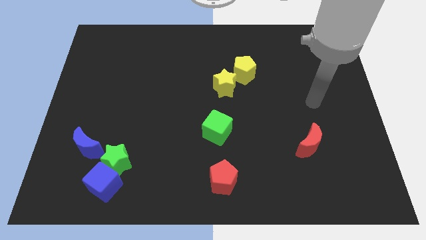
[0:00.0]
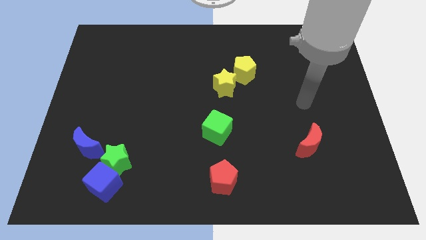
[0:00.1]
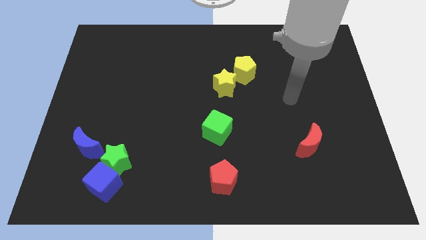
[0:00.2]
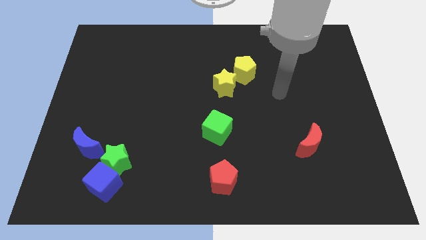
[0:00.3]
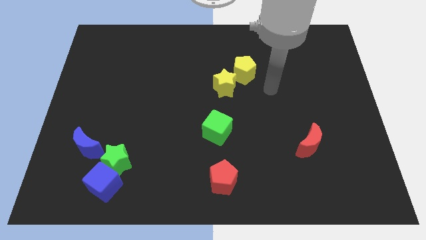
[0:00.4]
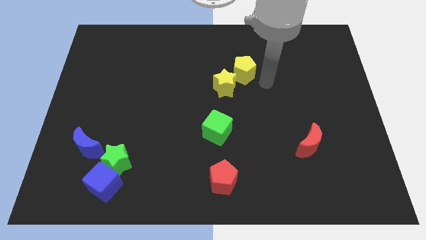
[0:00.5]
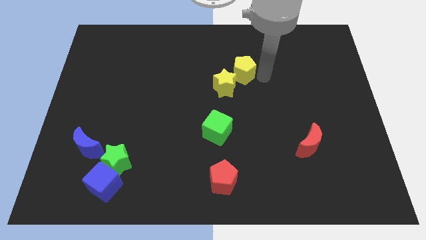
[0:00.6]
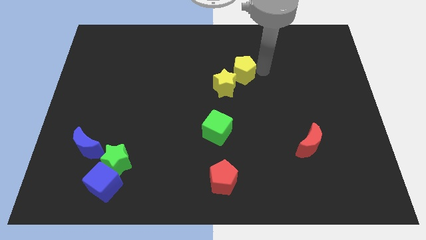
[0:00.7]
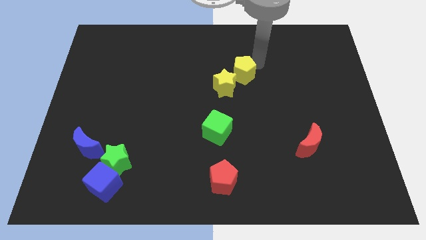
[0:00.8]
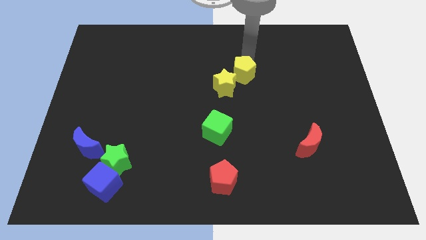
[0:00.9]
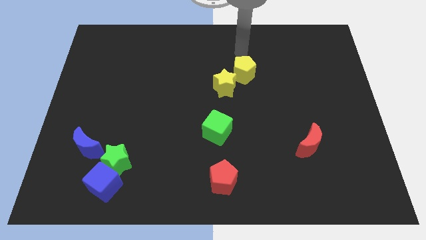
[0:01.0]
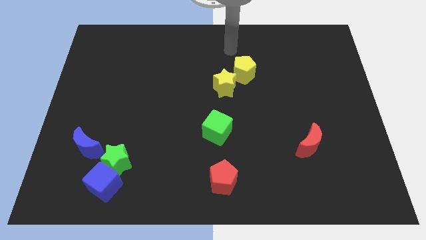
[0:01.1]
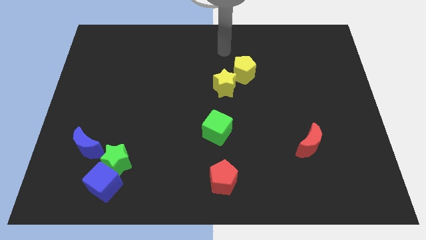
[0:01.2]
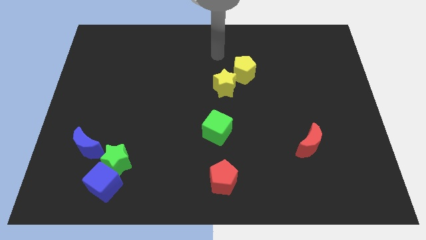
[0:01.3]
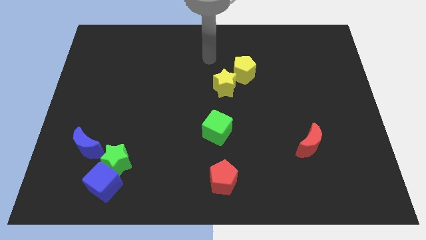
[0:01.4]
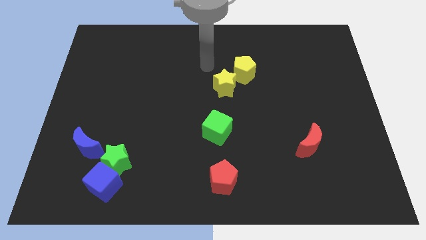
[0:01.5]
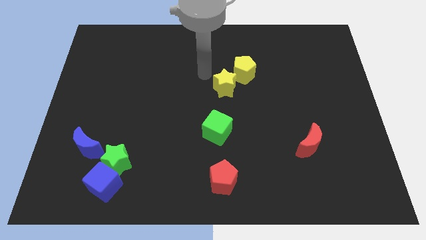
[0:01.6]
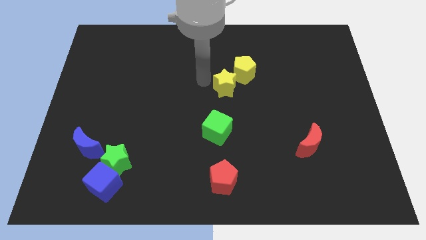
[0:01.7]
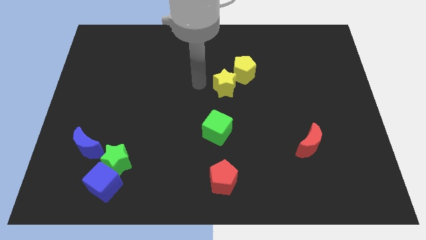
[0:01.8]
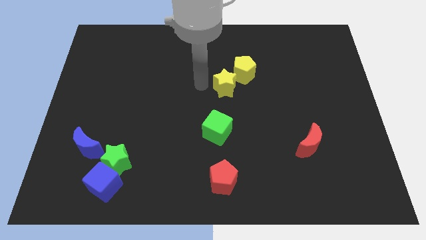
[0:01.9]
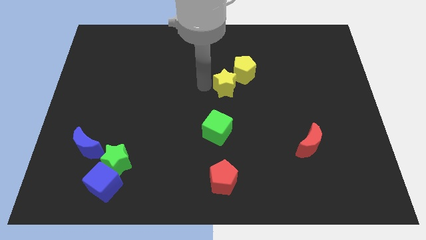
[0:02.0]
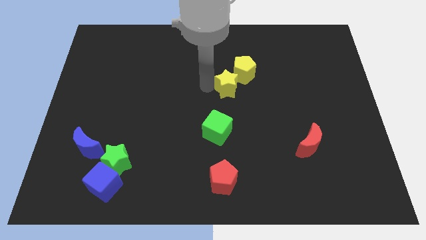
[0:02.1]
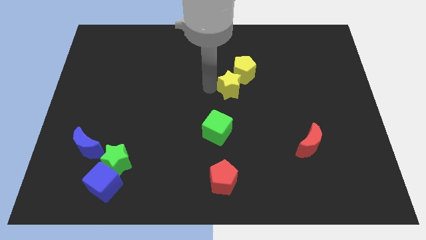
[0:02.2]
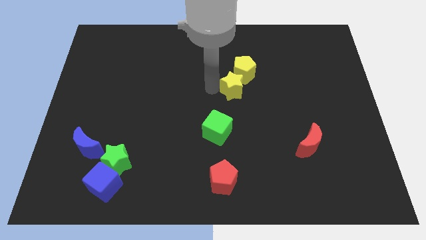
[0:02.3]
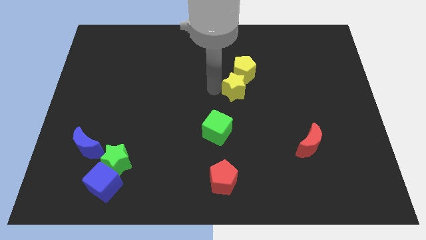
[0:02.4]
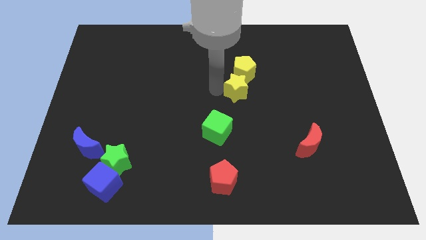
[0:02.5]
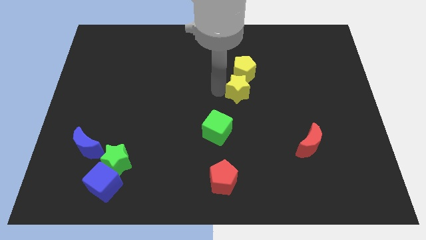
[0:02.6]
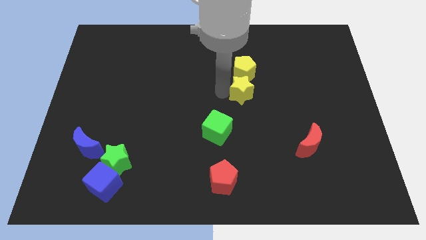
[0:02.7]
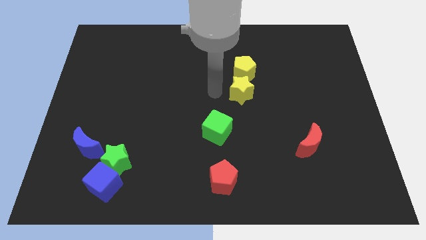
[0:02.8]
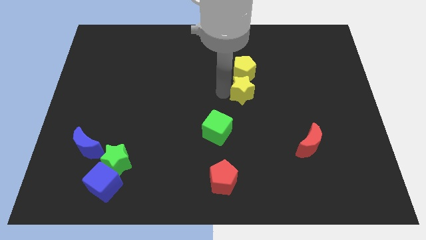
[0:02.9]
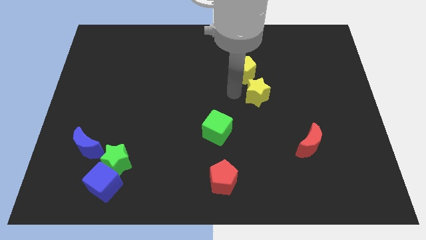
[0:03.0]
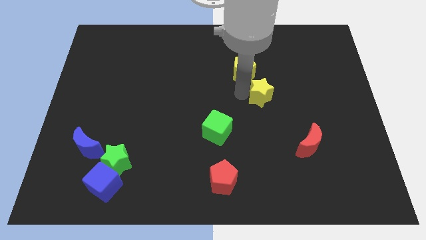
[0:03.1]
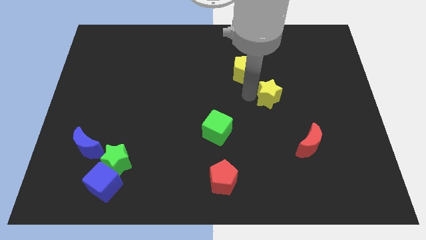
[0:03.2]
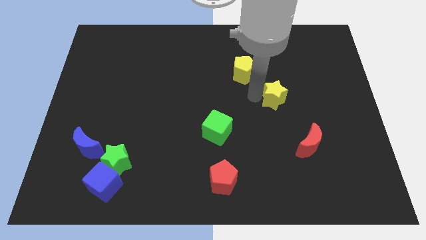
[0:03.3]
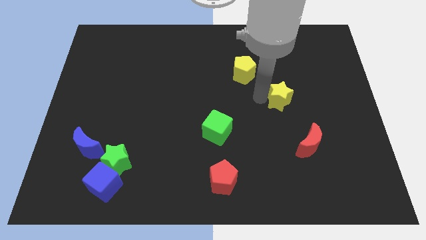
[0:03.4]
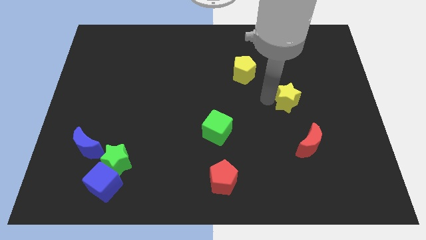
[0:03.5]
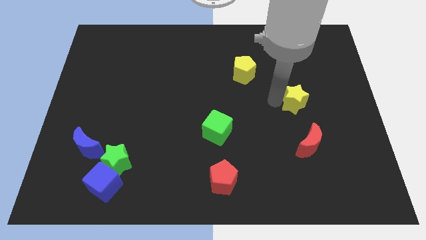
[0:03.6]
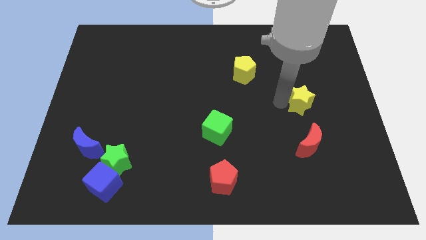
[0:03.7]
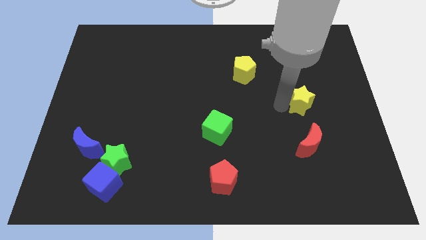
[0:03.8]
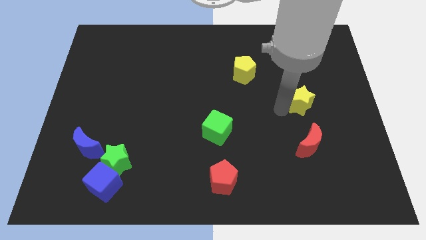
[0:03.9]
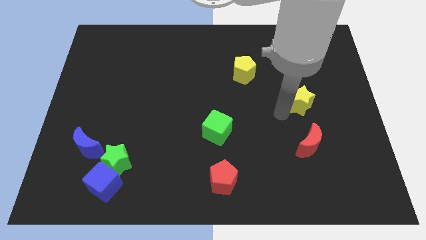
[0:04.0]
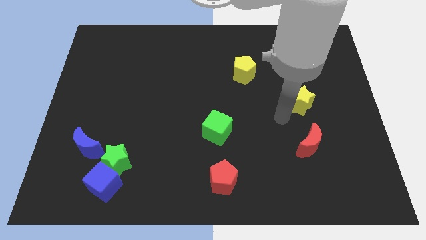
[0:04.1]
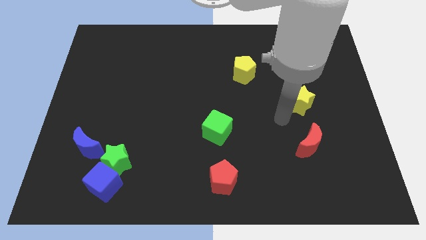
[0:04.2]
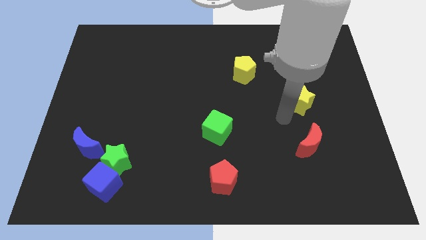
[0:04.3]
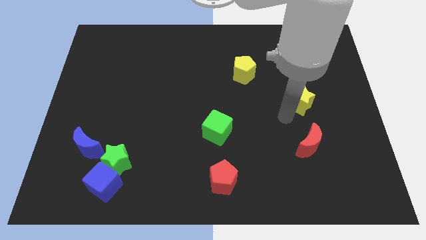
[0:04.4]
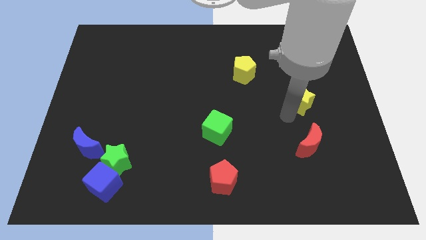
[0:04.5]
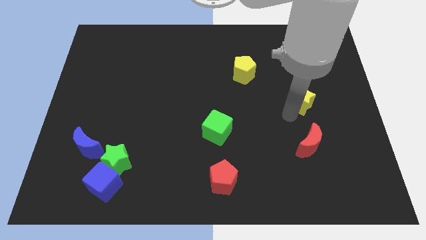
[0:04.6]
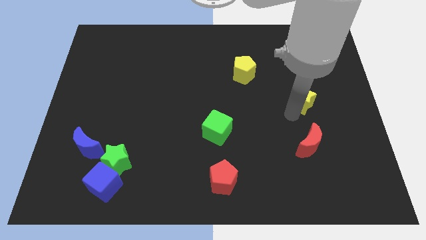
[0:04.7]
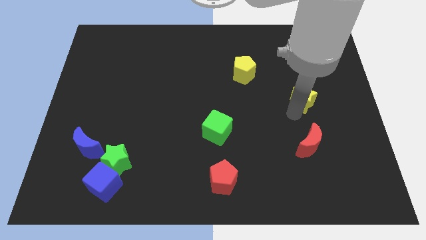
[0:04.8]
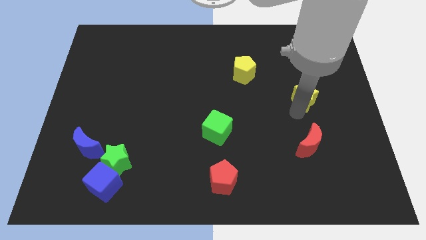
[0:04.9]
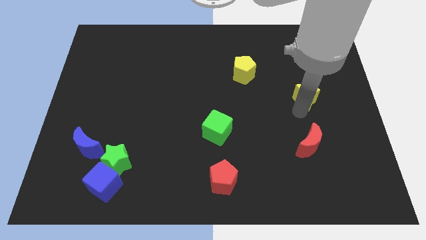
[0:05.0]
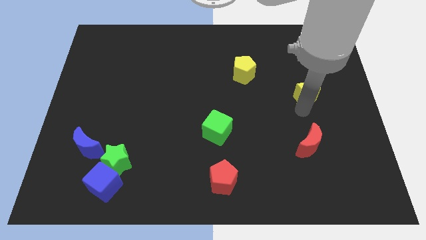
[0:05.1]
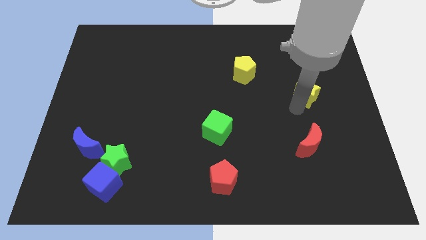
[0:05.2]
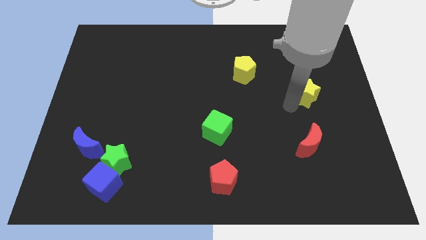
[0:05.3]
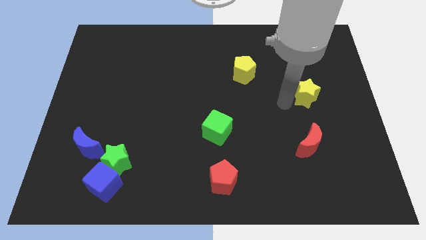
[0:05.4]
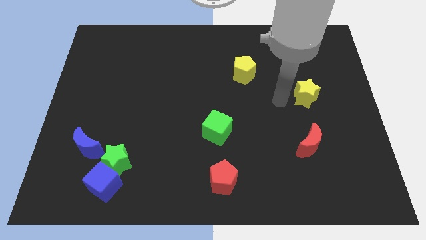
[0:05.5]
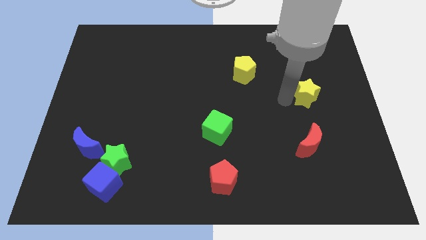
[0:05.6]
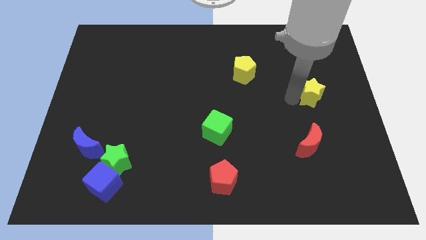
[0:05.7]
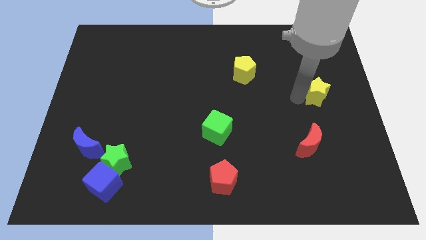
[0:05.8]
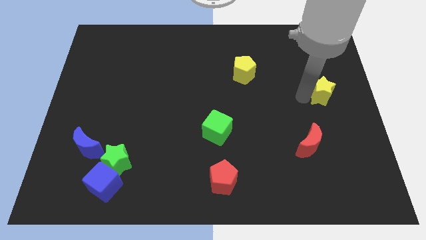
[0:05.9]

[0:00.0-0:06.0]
put the yellow star to the right side
